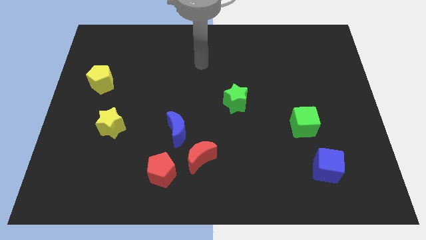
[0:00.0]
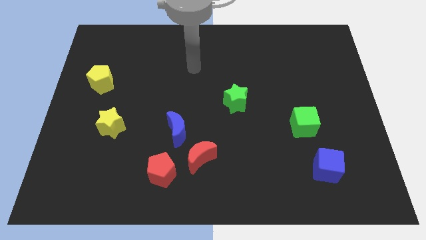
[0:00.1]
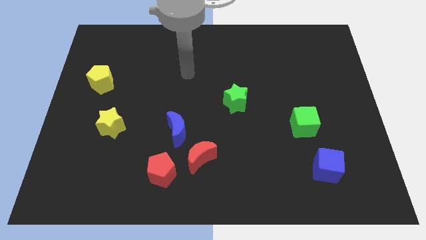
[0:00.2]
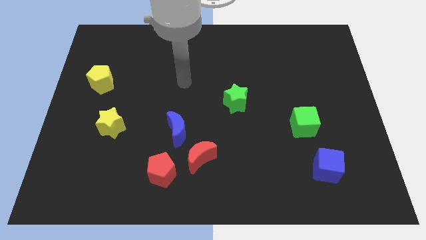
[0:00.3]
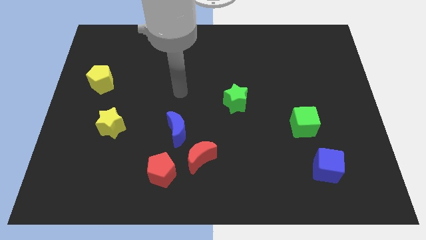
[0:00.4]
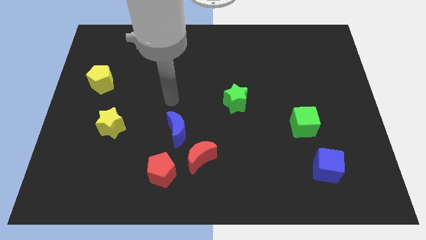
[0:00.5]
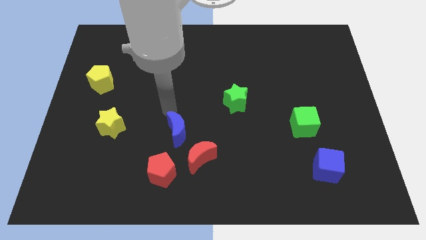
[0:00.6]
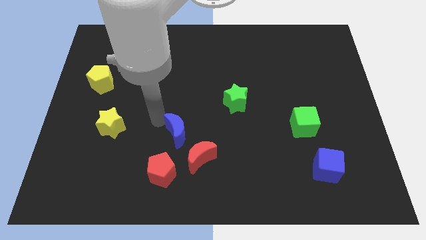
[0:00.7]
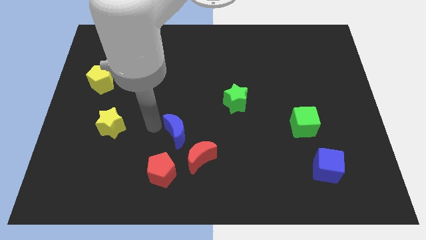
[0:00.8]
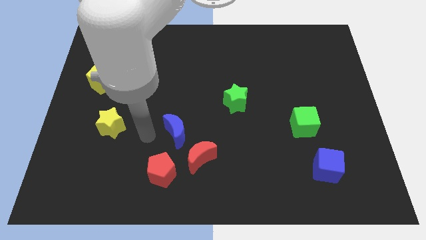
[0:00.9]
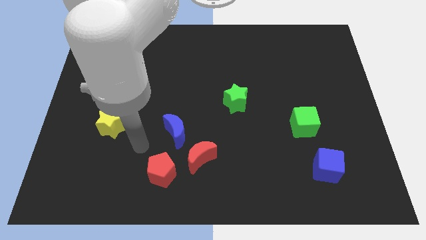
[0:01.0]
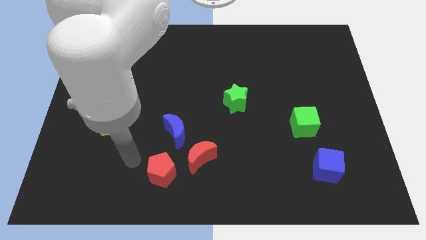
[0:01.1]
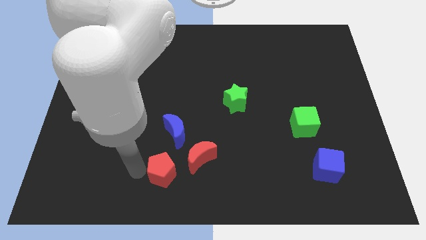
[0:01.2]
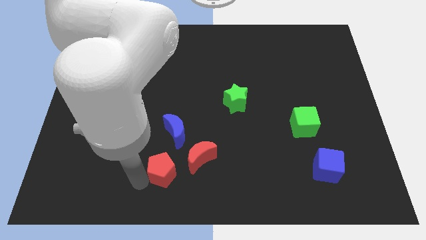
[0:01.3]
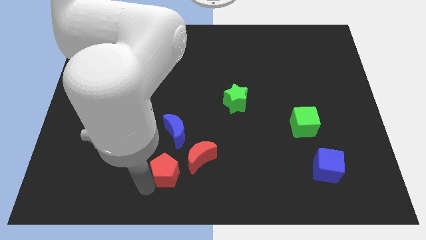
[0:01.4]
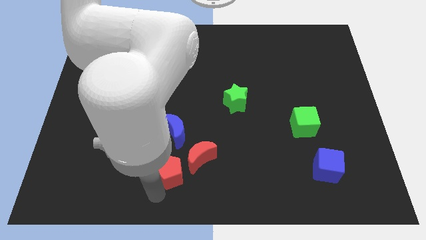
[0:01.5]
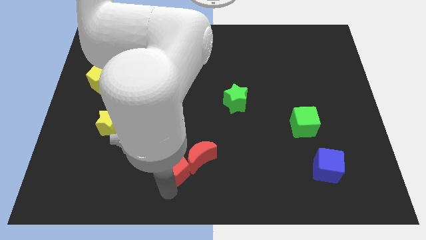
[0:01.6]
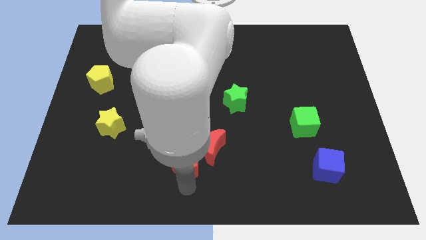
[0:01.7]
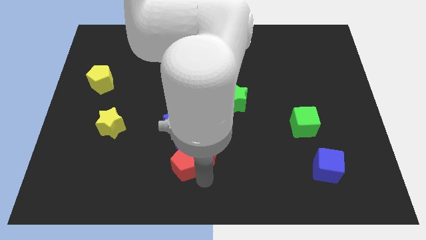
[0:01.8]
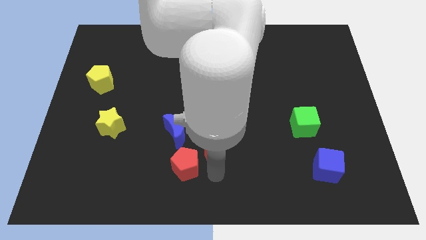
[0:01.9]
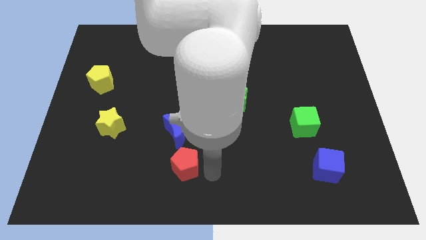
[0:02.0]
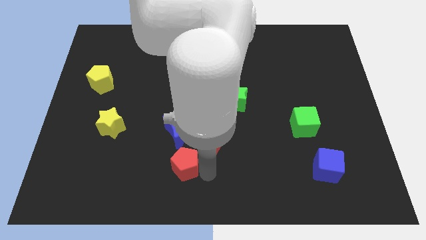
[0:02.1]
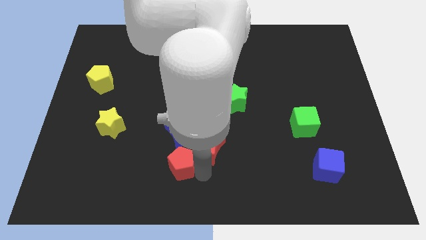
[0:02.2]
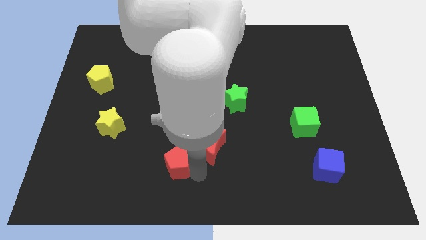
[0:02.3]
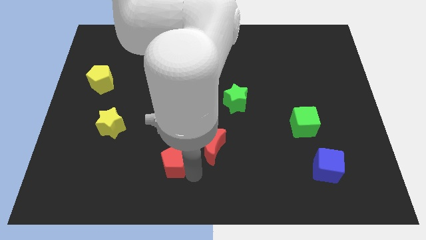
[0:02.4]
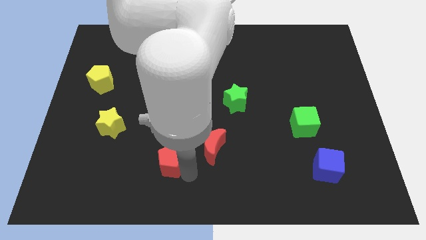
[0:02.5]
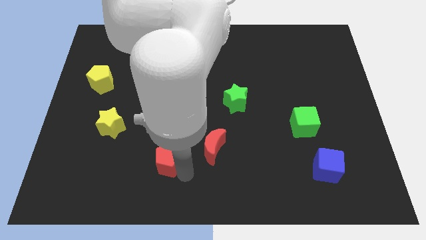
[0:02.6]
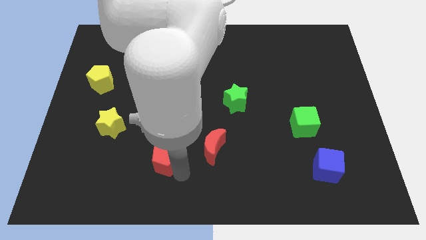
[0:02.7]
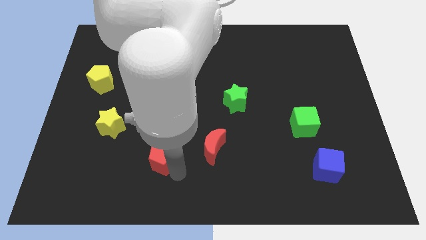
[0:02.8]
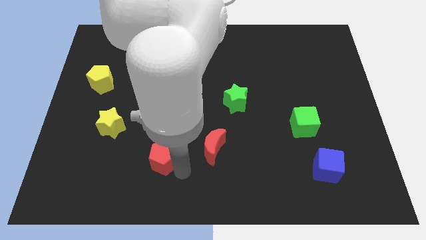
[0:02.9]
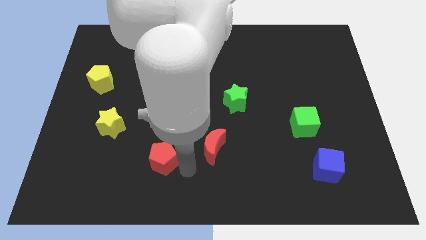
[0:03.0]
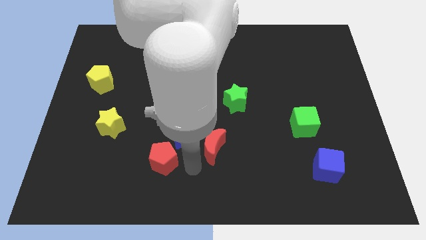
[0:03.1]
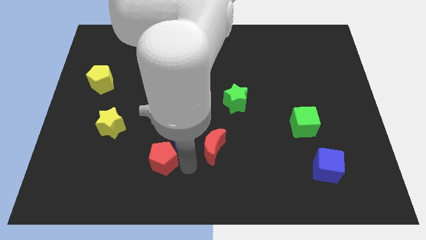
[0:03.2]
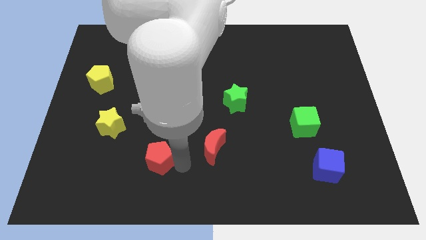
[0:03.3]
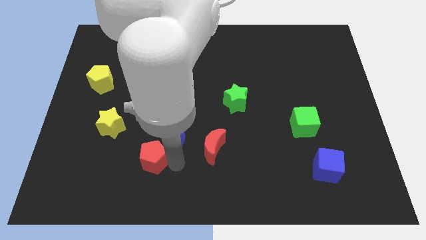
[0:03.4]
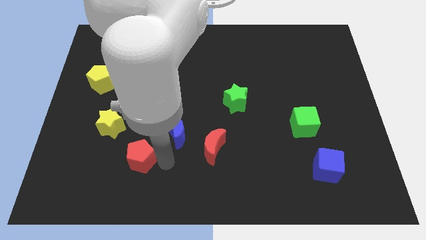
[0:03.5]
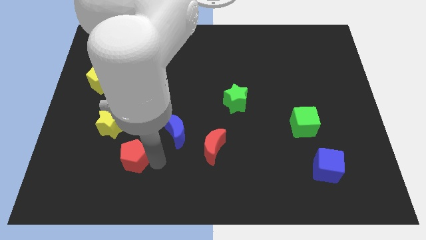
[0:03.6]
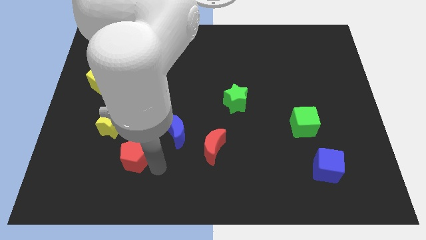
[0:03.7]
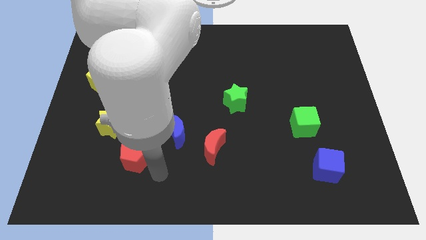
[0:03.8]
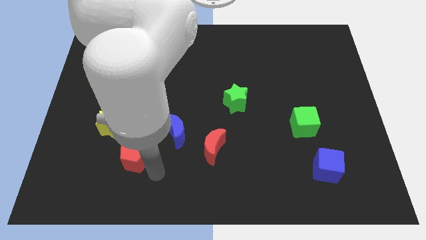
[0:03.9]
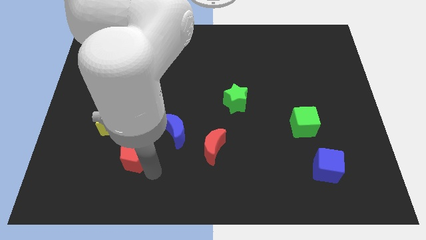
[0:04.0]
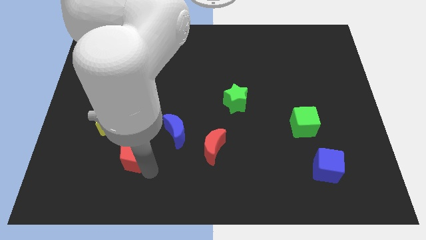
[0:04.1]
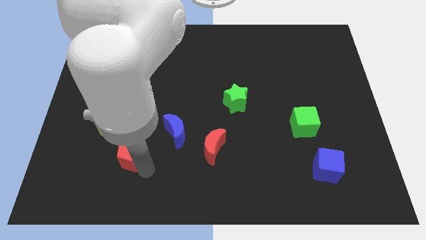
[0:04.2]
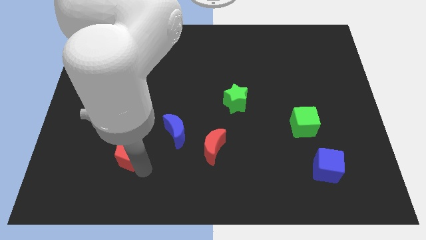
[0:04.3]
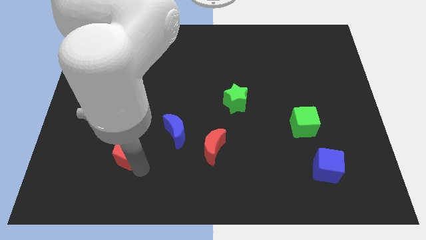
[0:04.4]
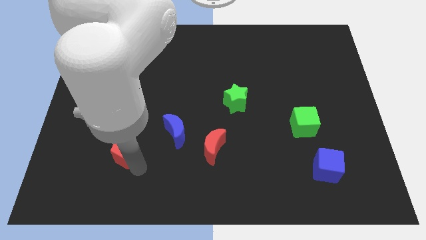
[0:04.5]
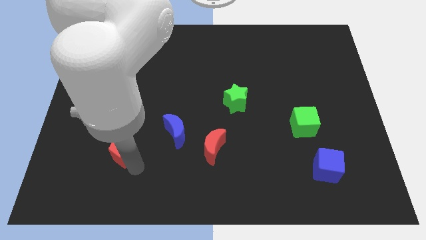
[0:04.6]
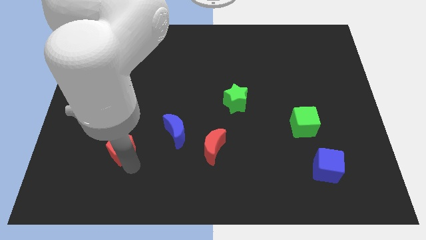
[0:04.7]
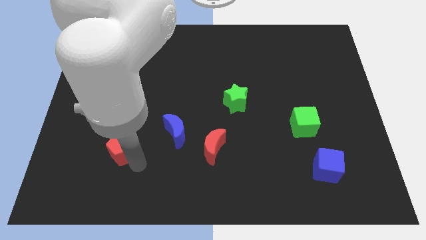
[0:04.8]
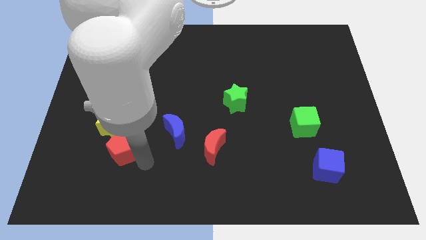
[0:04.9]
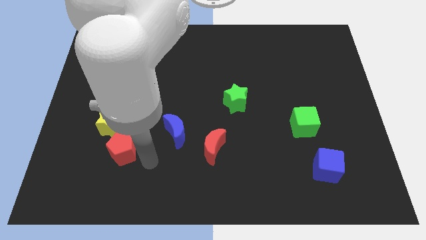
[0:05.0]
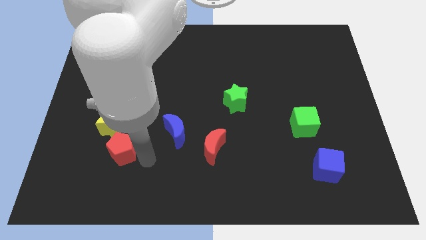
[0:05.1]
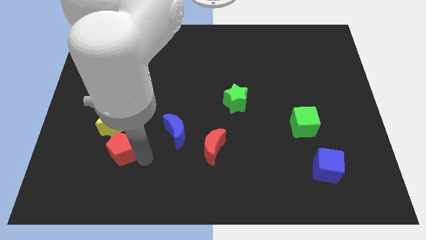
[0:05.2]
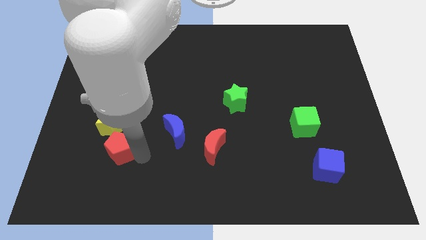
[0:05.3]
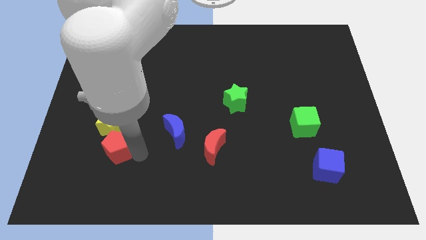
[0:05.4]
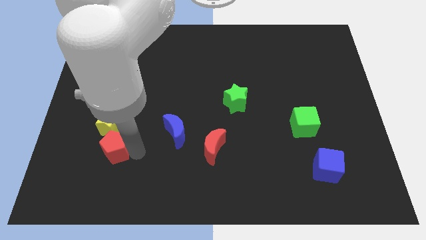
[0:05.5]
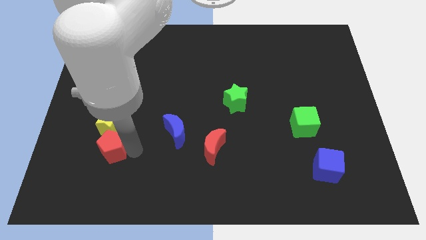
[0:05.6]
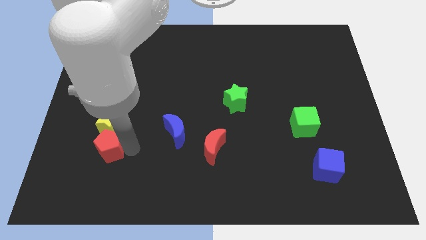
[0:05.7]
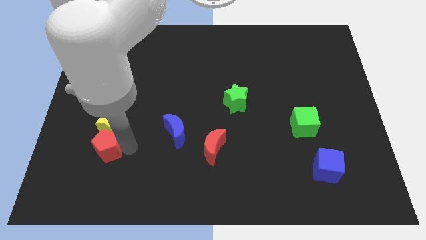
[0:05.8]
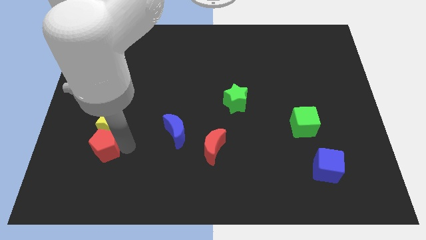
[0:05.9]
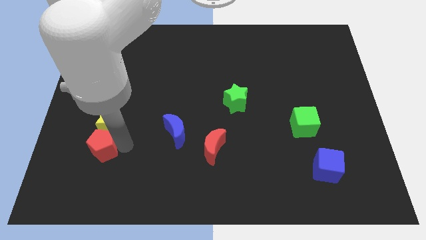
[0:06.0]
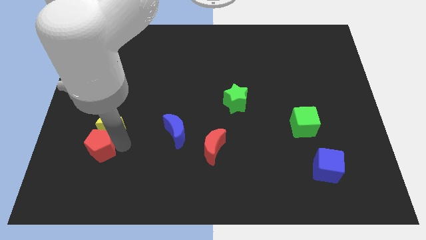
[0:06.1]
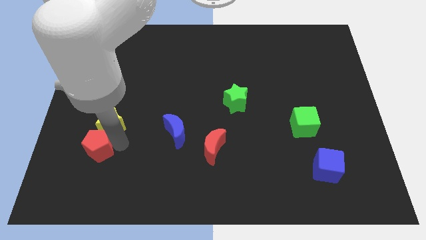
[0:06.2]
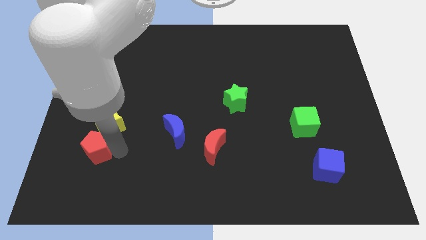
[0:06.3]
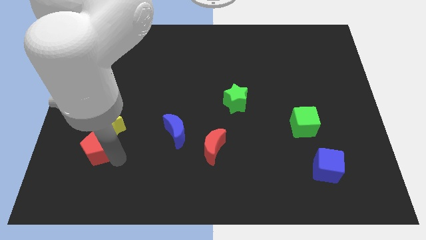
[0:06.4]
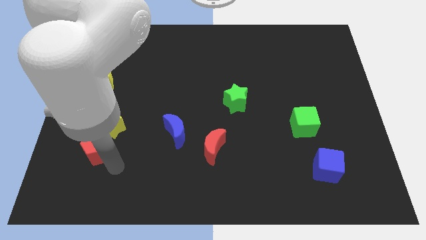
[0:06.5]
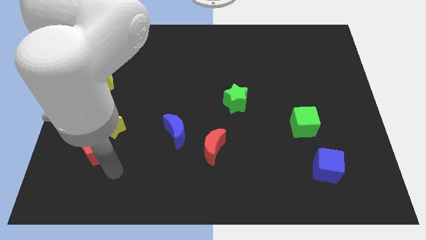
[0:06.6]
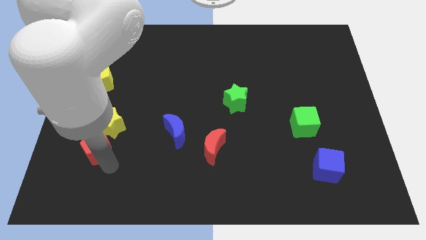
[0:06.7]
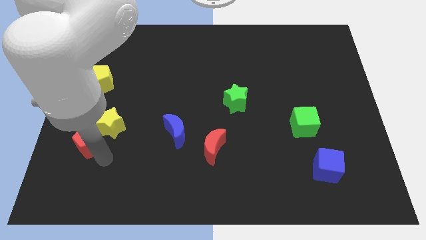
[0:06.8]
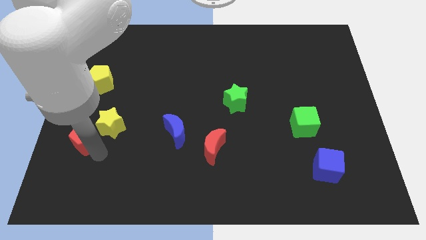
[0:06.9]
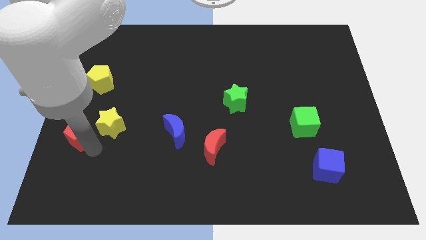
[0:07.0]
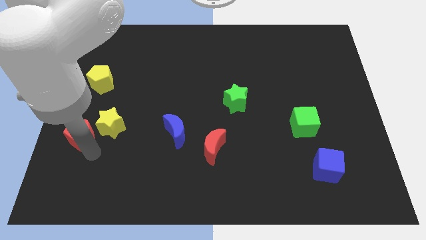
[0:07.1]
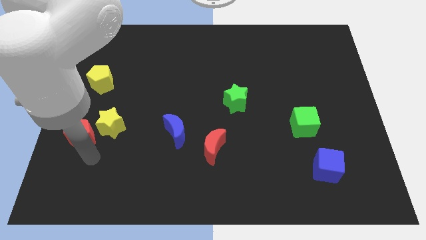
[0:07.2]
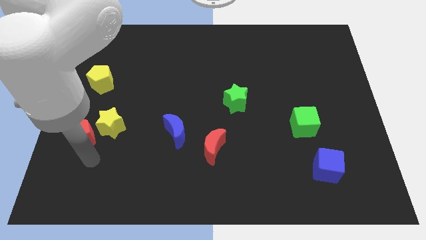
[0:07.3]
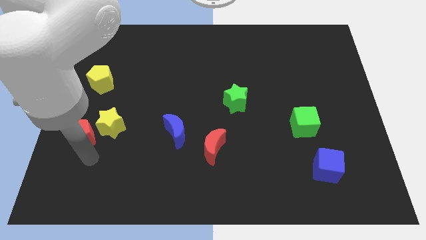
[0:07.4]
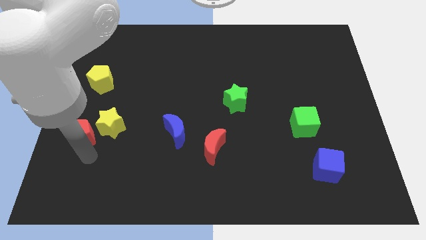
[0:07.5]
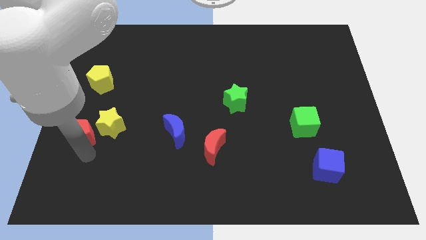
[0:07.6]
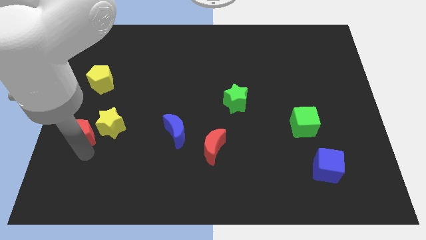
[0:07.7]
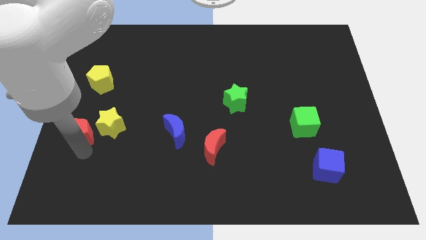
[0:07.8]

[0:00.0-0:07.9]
move the red pentagon to the left side of the board
